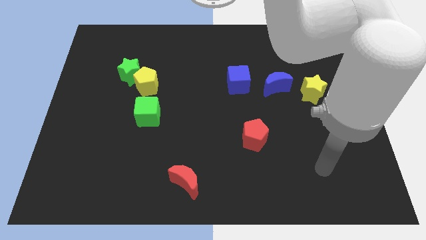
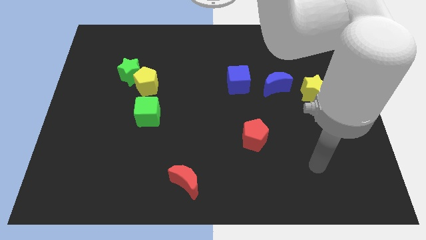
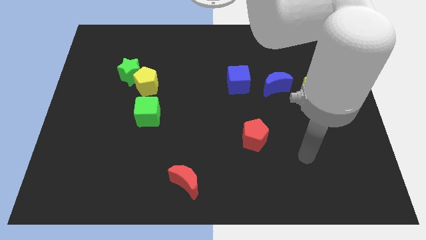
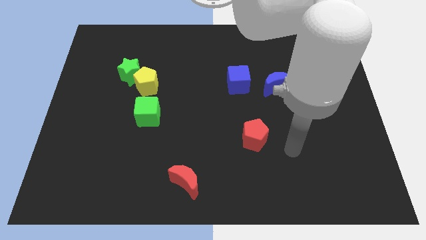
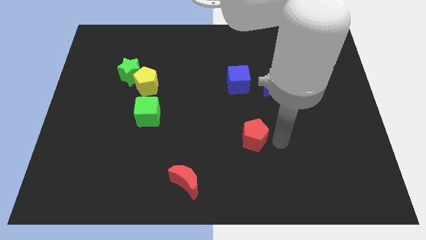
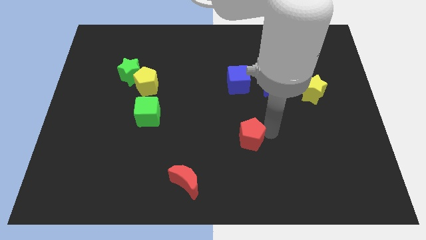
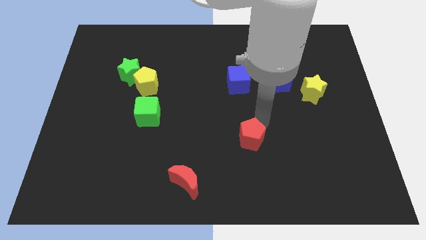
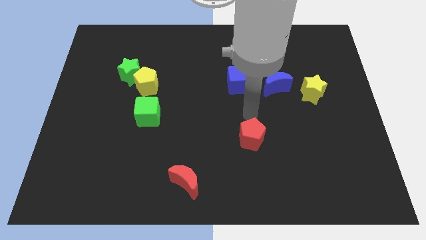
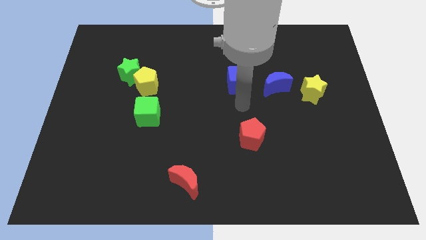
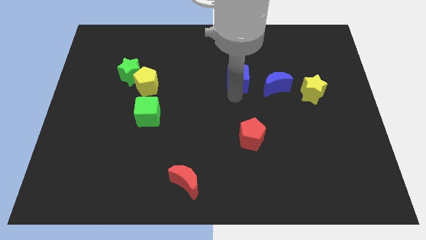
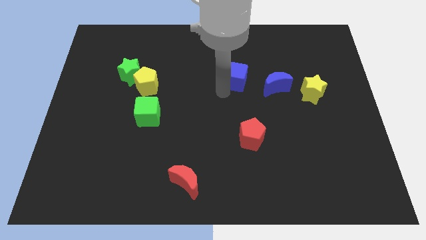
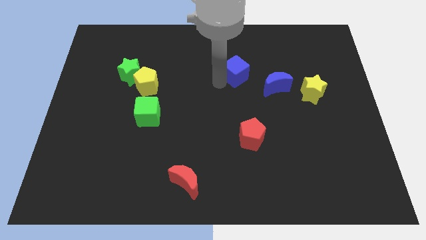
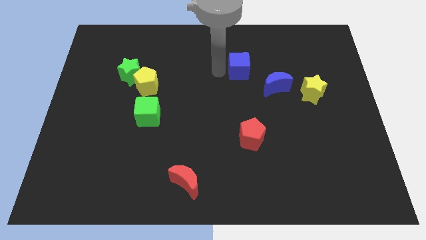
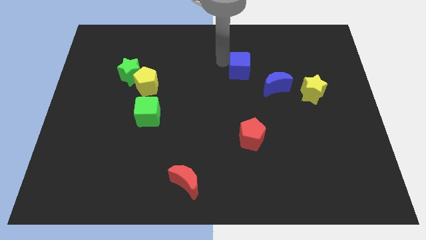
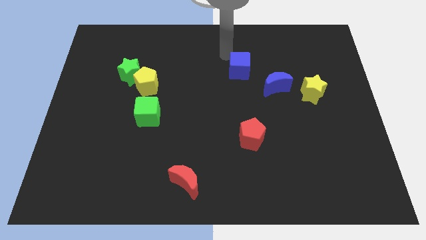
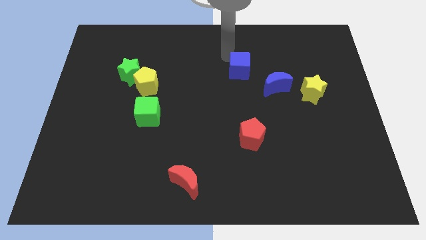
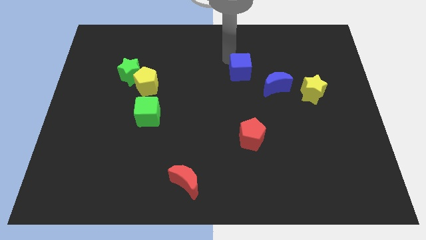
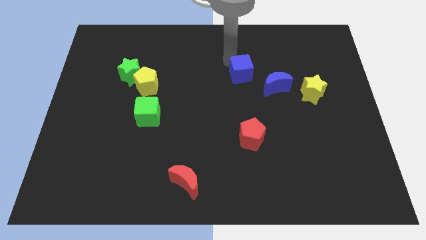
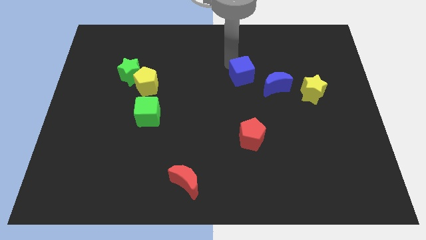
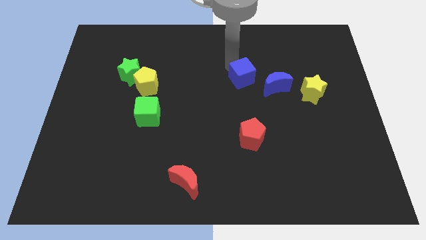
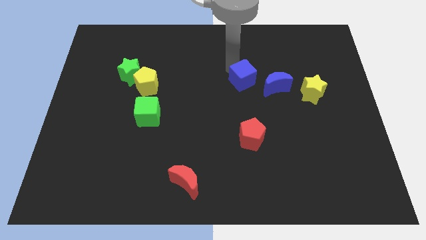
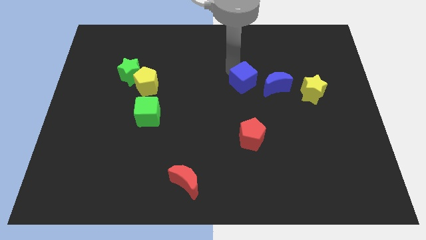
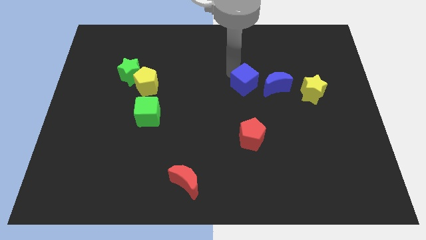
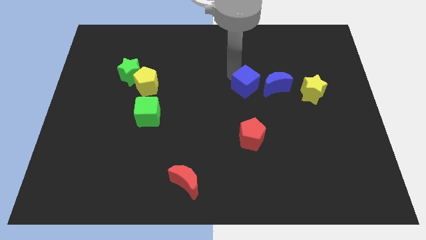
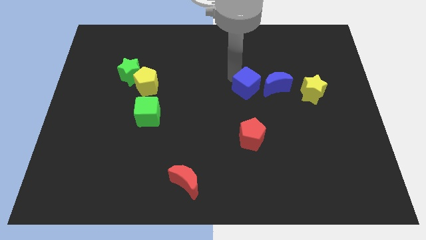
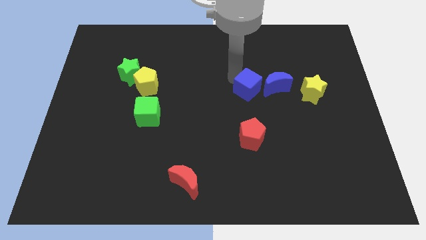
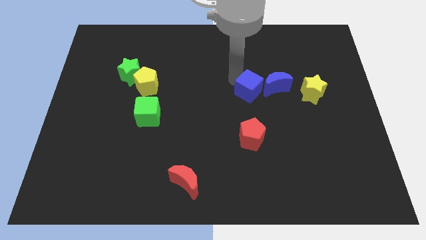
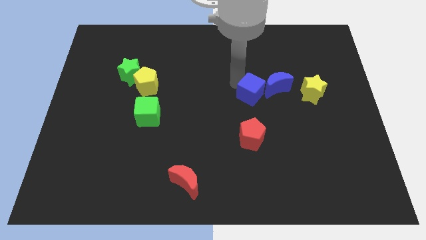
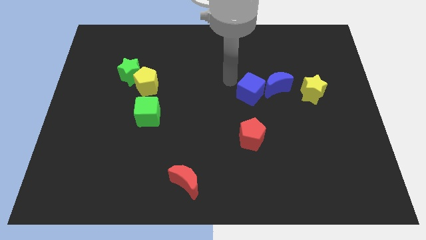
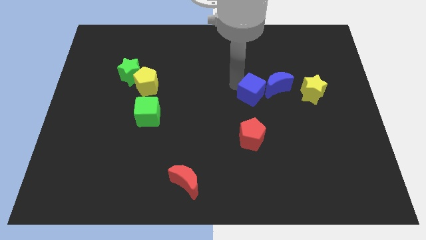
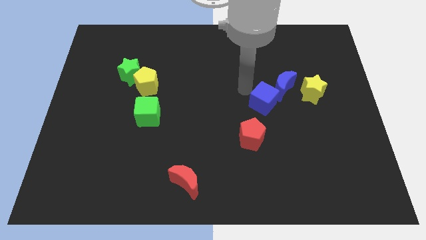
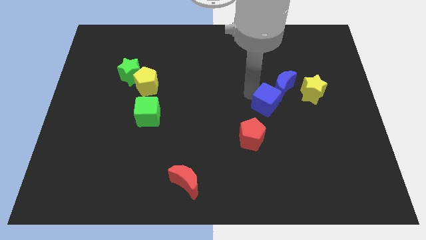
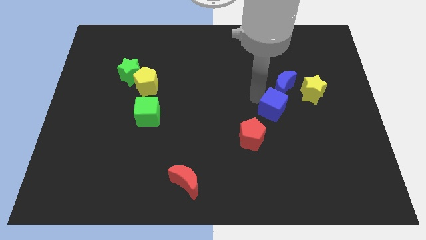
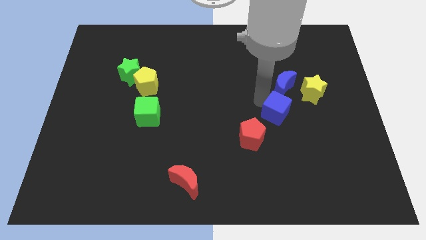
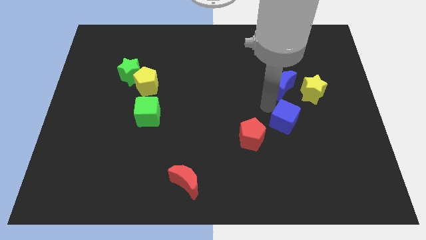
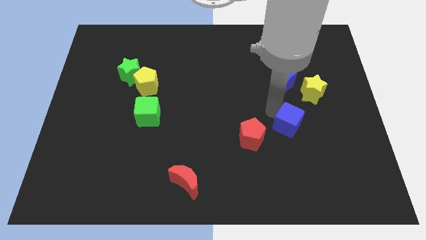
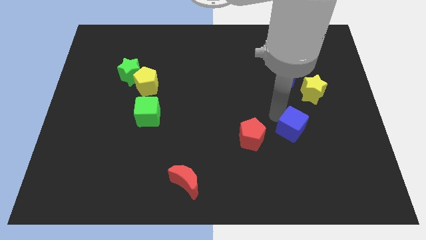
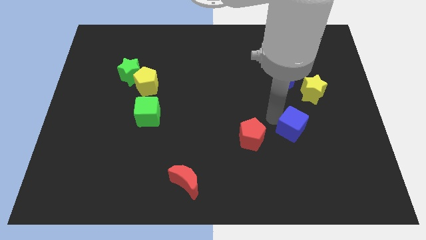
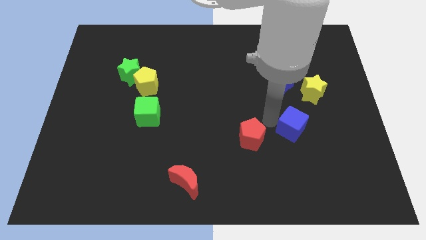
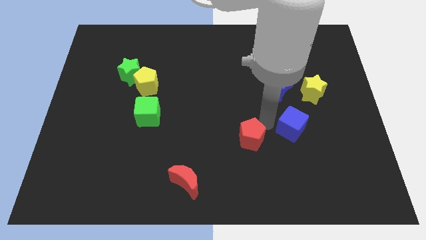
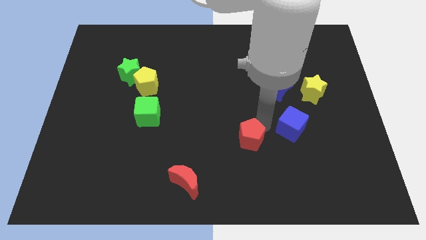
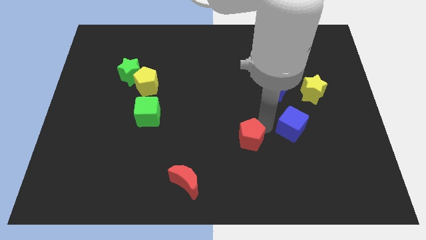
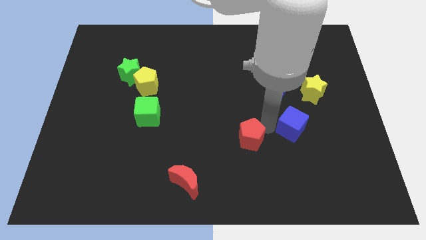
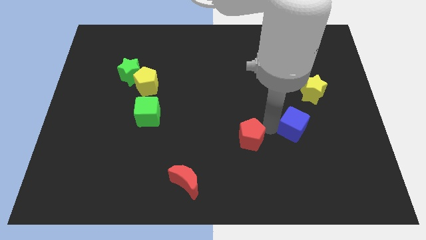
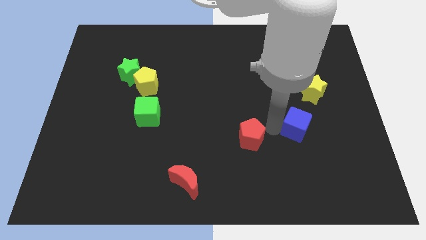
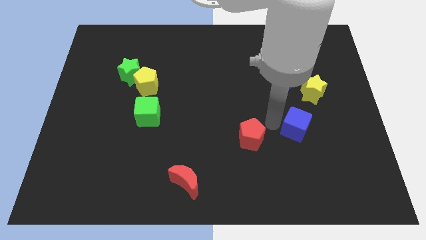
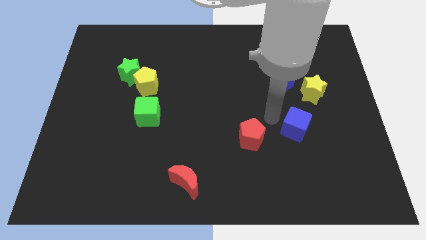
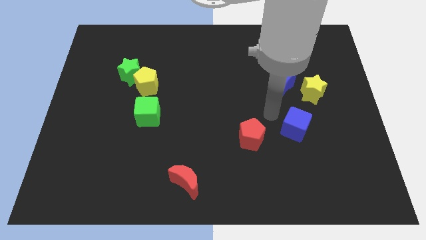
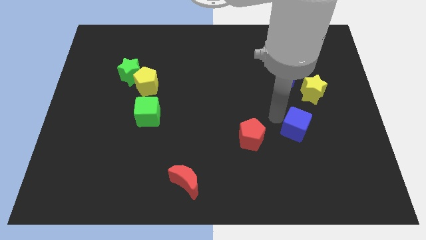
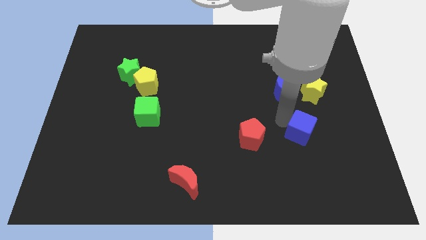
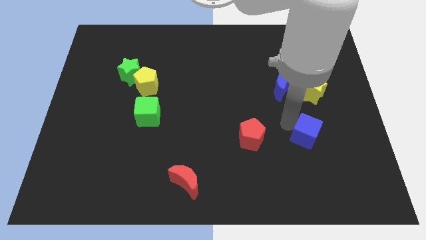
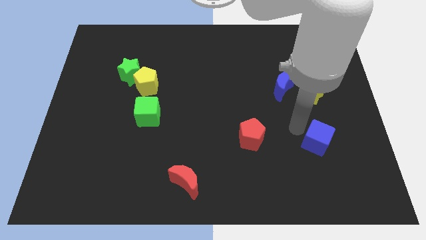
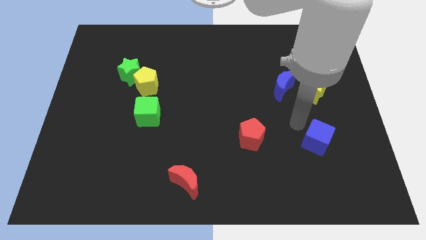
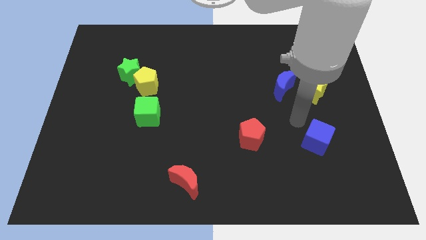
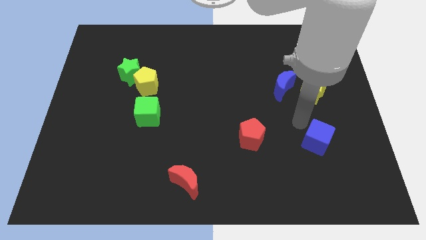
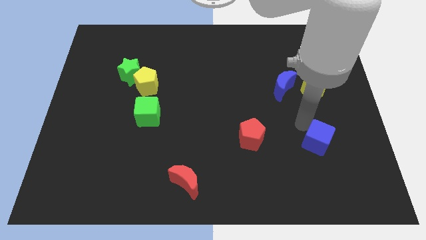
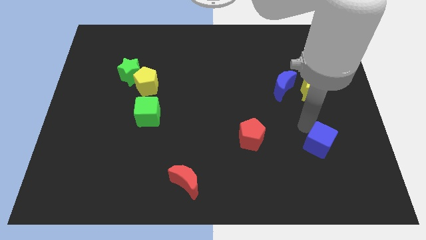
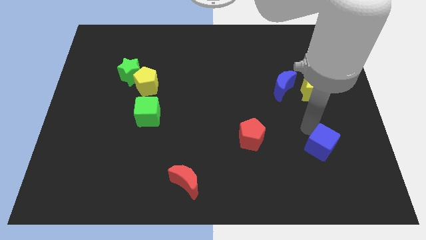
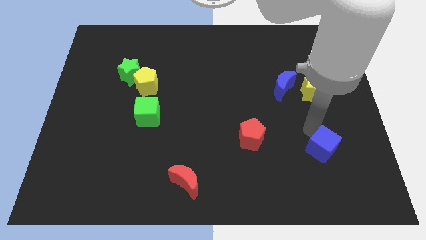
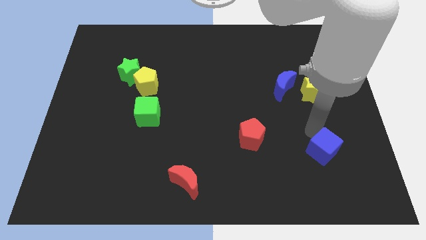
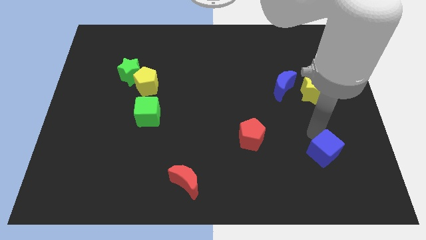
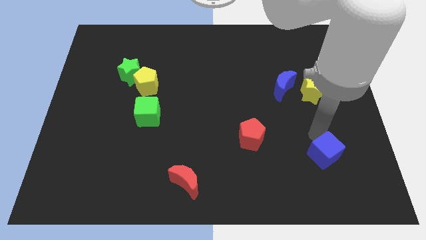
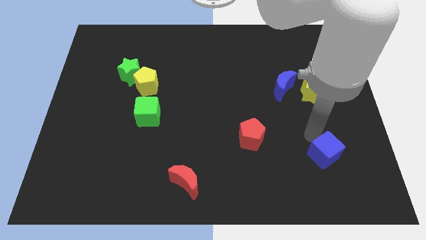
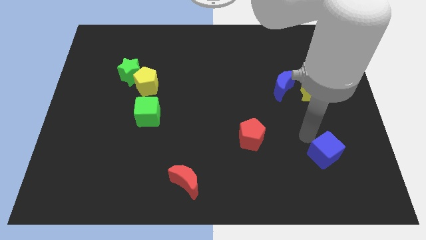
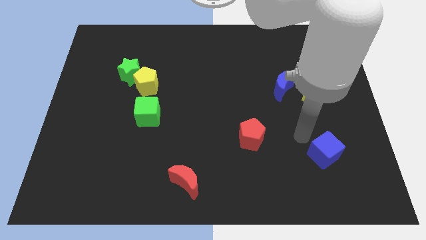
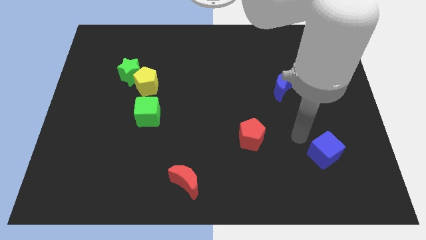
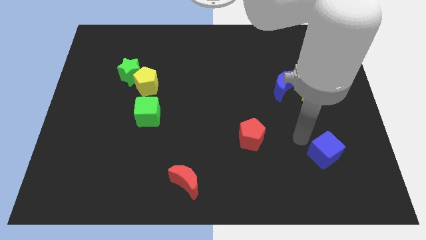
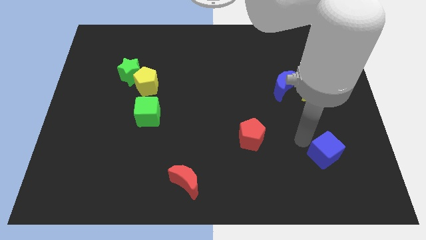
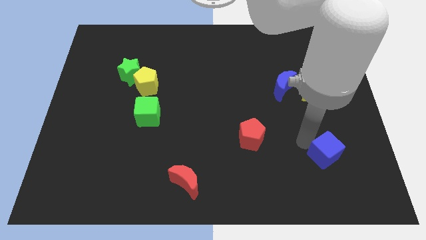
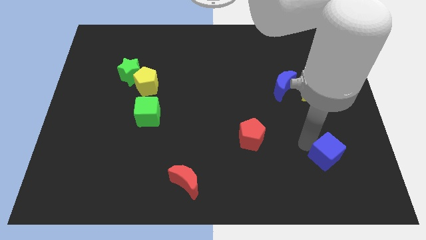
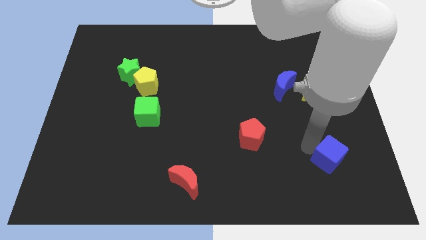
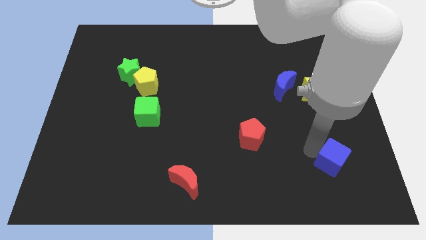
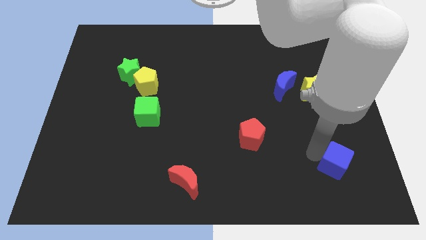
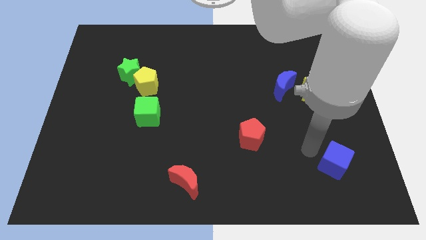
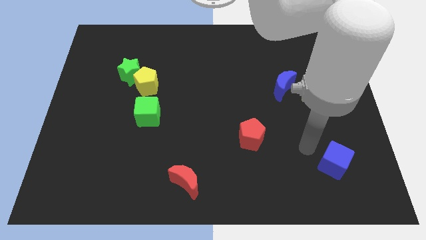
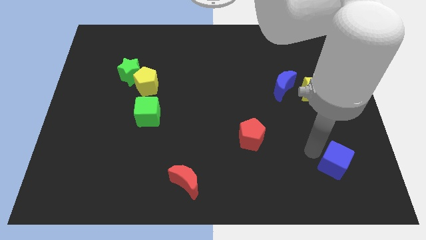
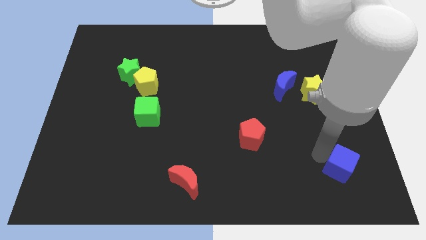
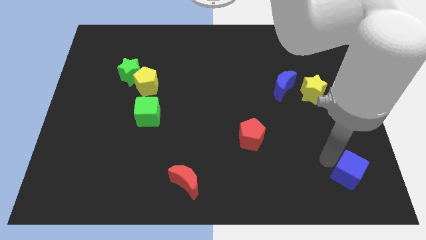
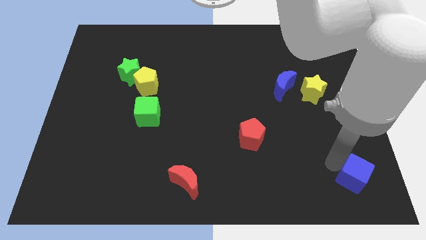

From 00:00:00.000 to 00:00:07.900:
move the blue cube to the bottom right corner
